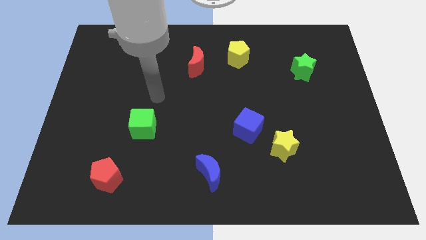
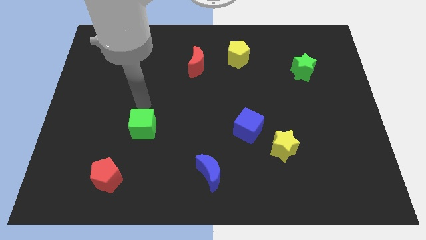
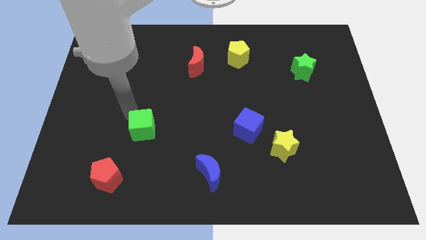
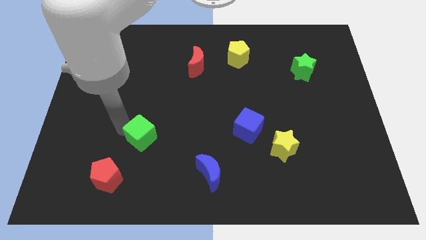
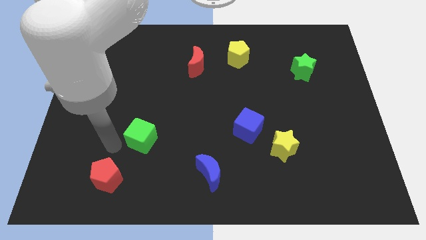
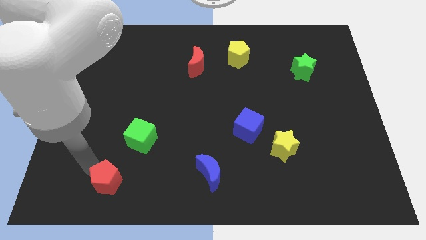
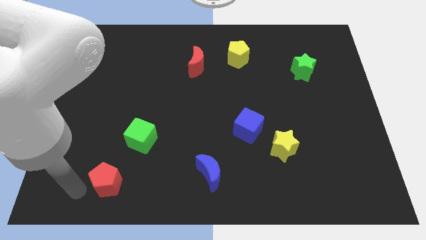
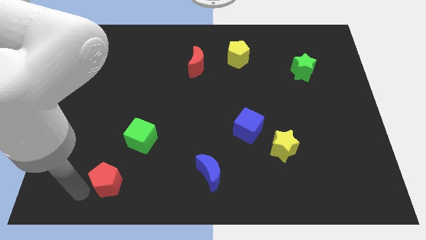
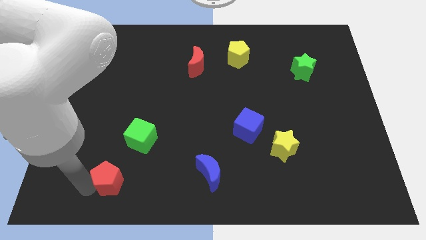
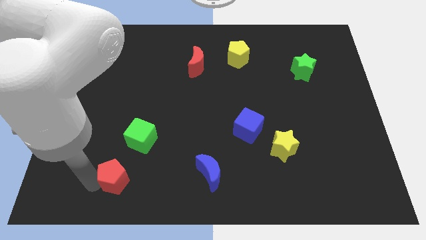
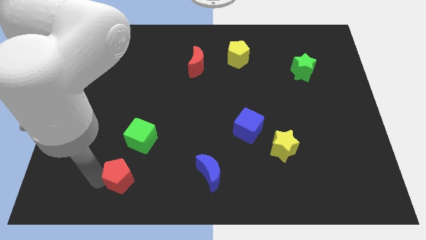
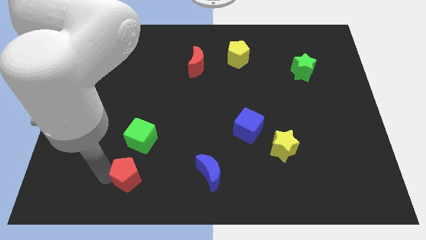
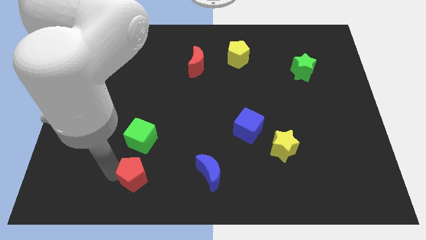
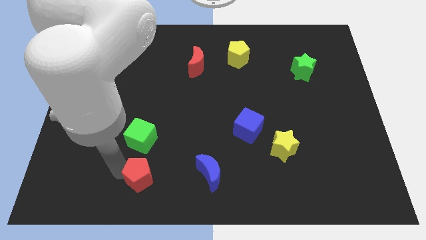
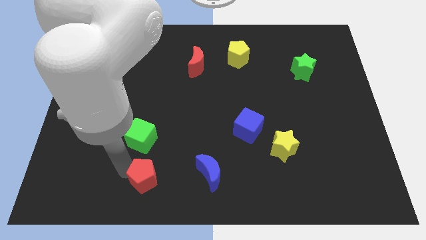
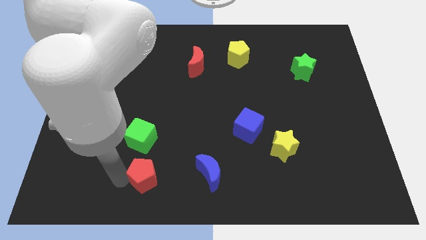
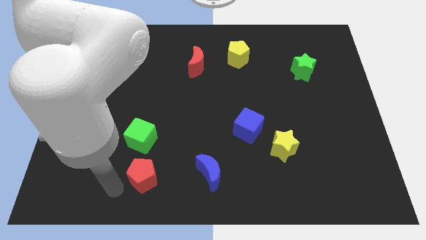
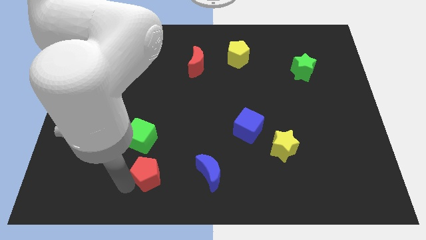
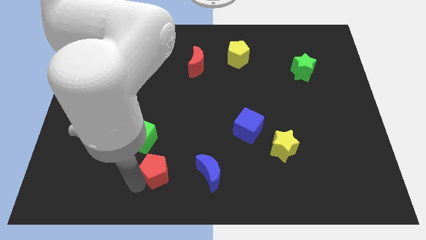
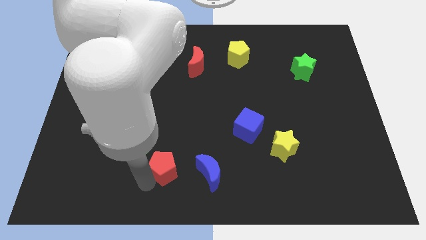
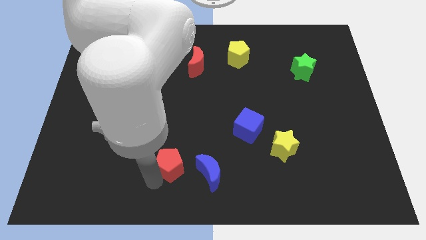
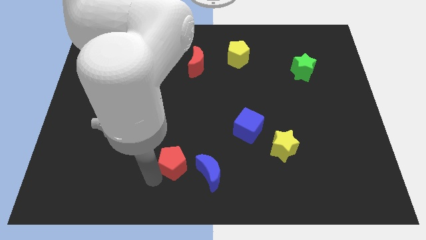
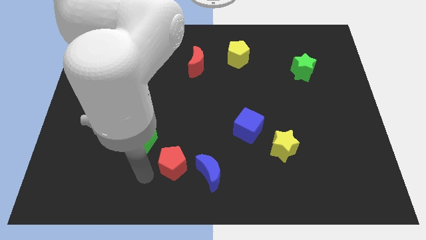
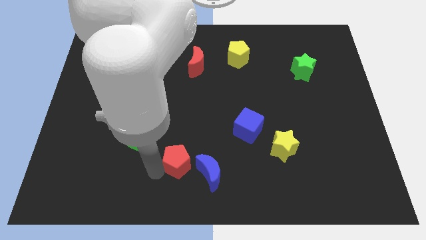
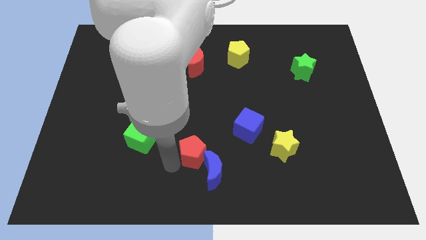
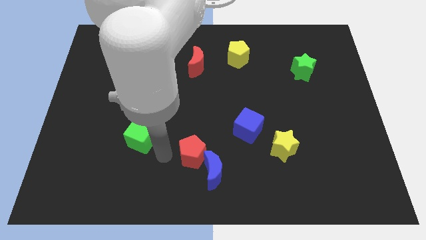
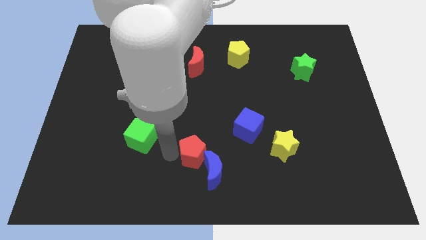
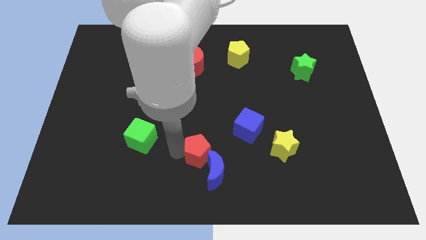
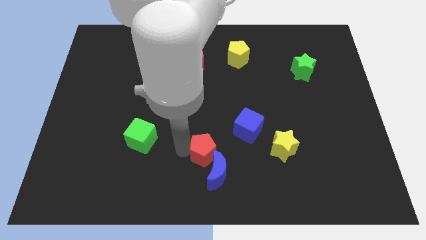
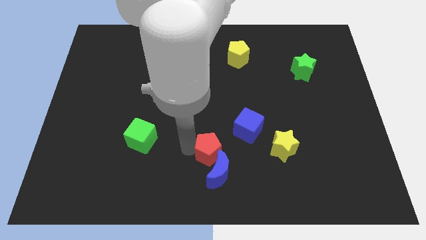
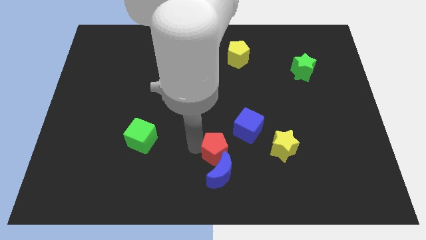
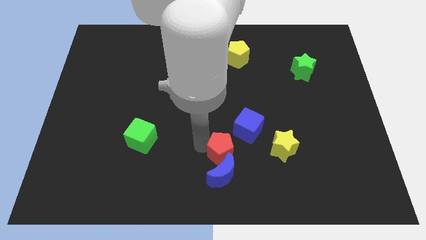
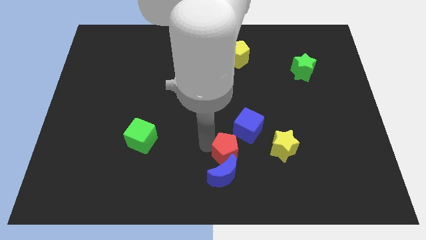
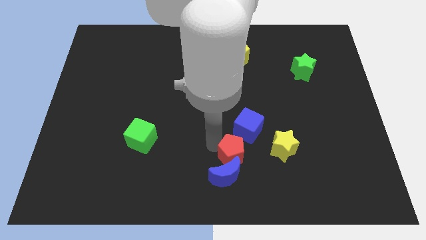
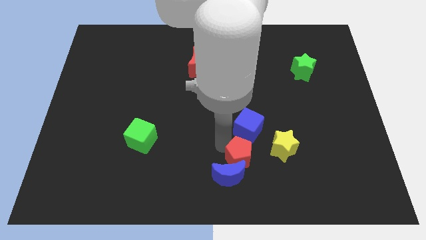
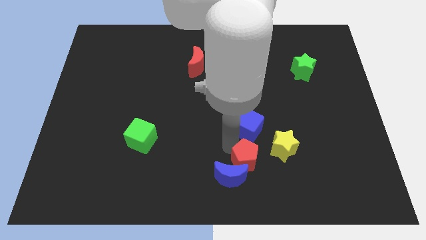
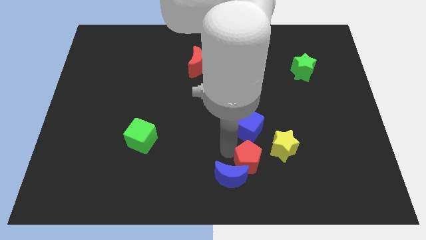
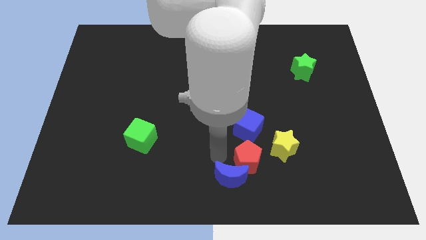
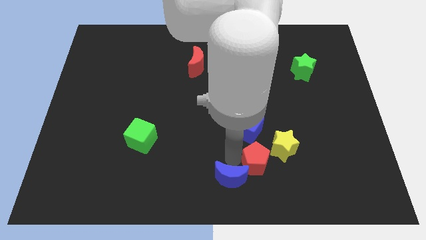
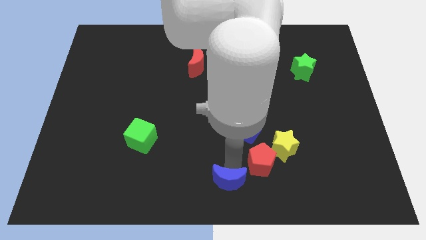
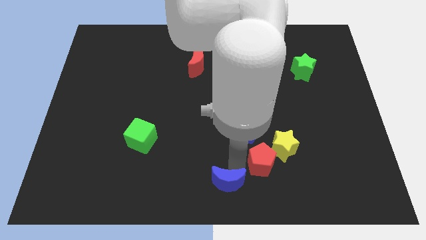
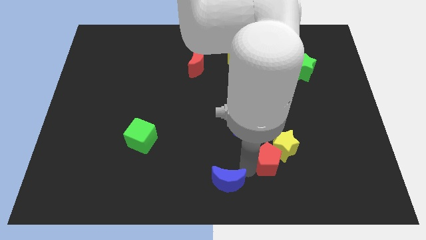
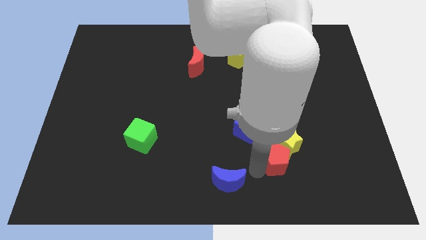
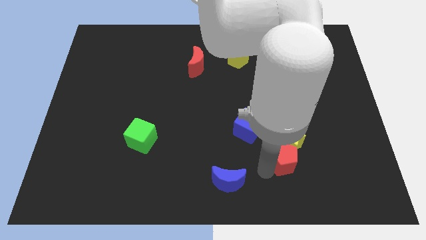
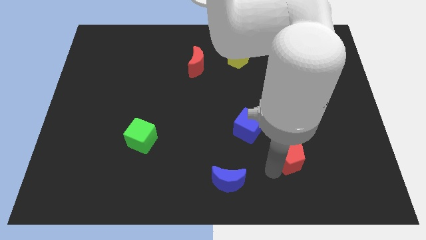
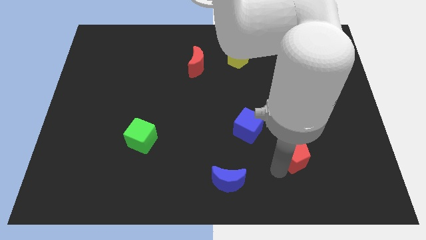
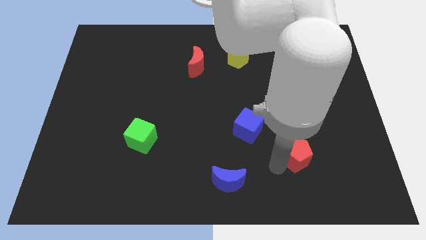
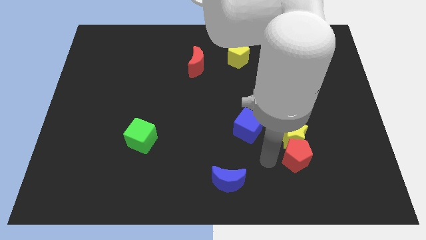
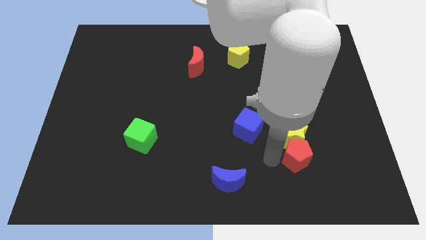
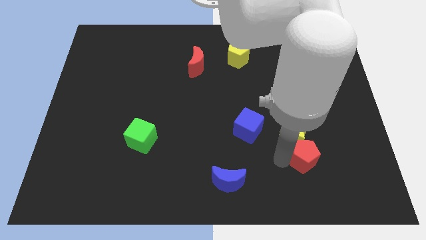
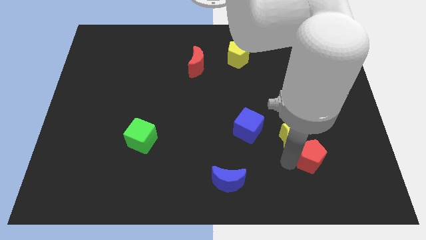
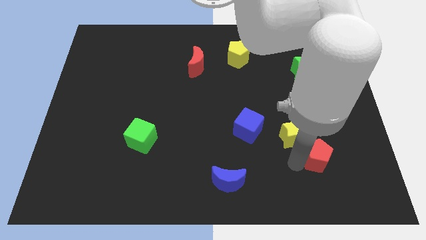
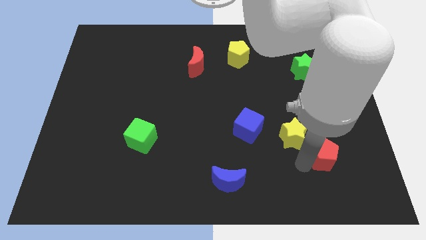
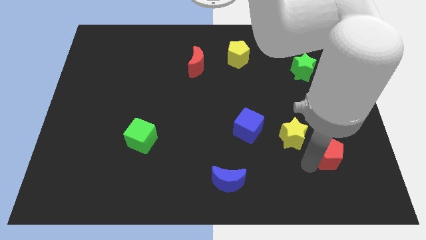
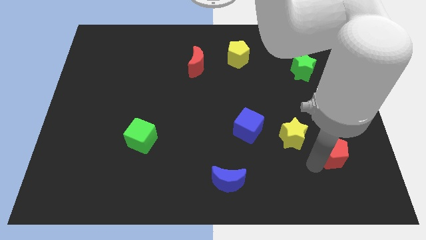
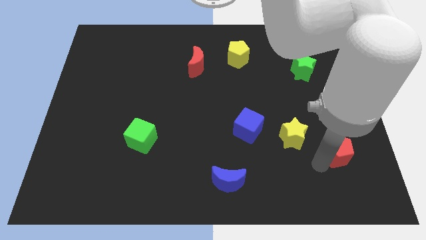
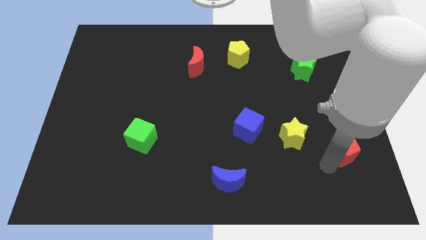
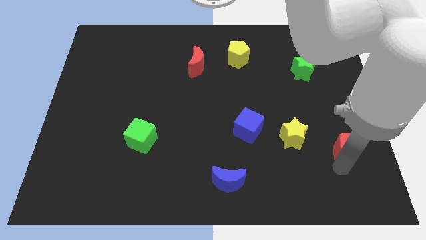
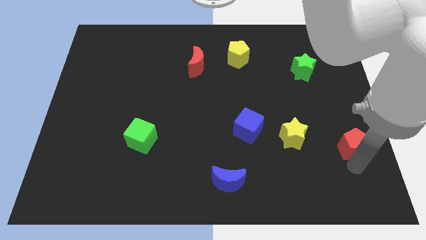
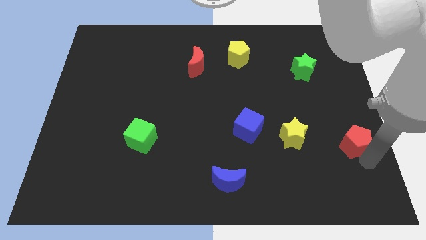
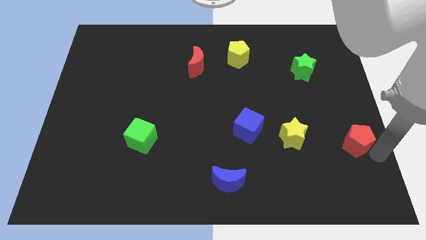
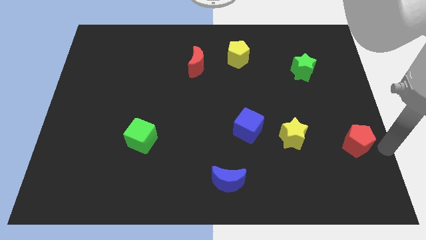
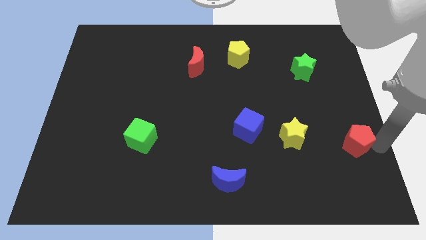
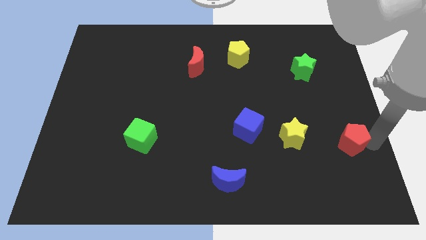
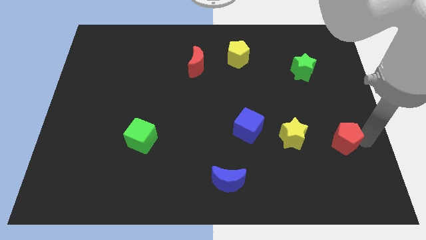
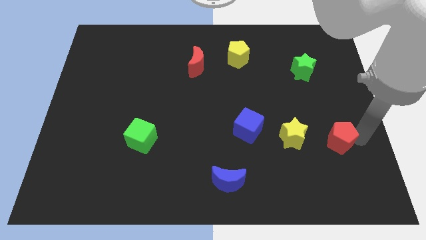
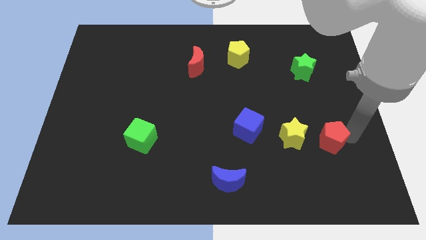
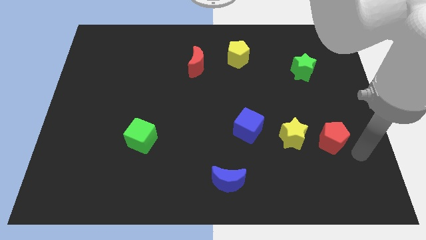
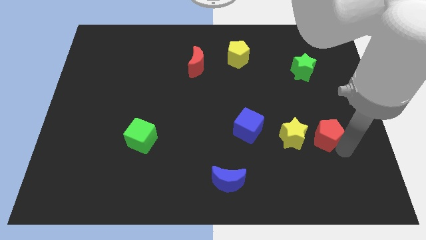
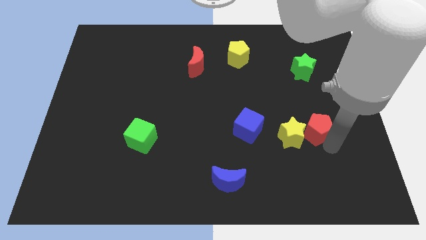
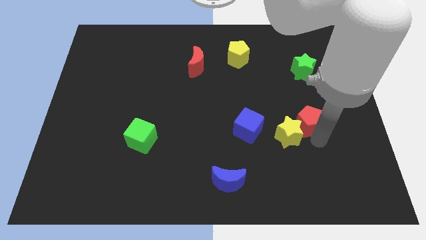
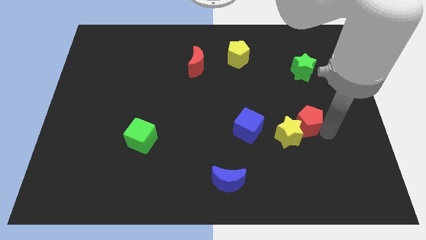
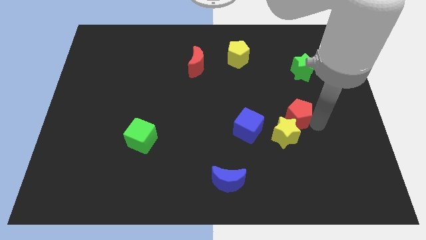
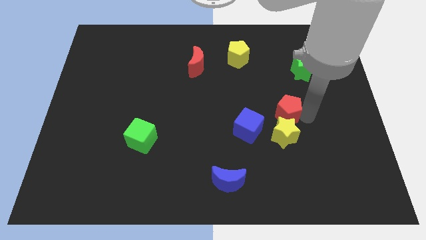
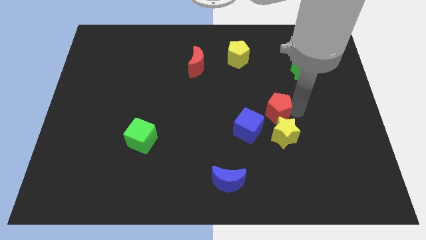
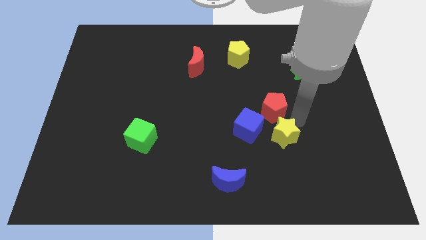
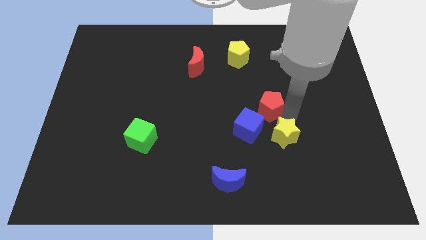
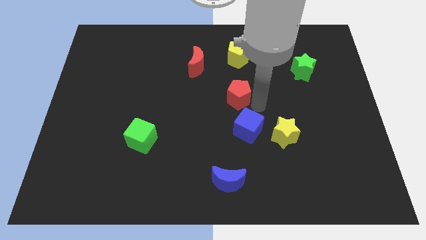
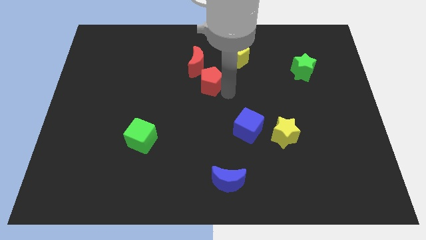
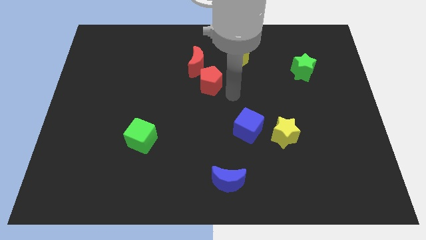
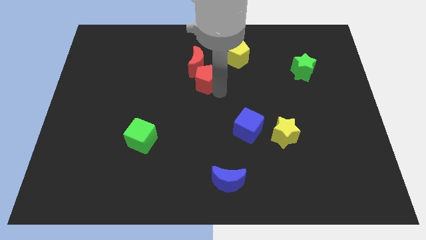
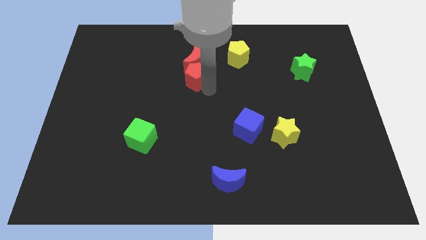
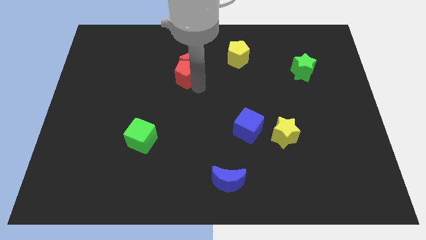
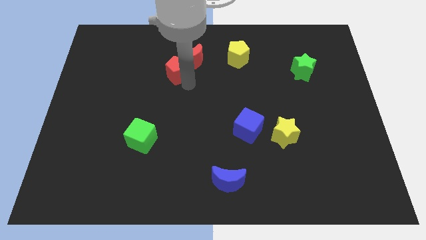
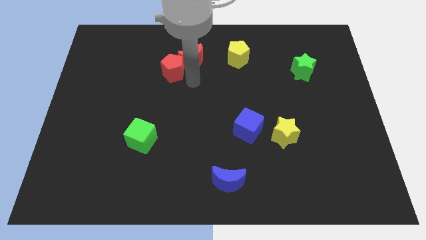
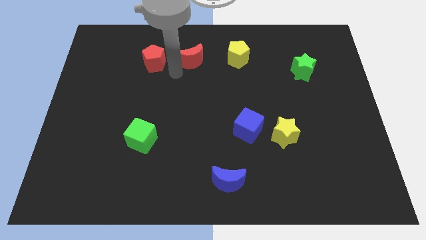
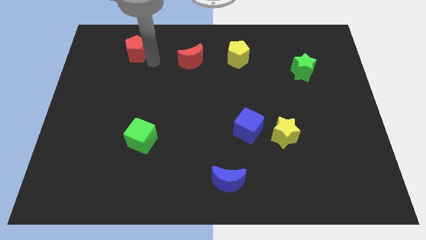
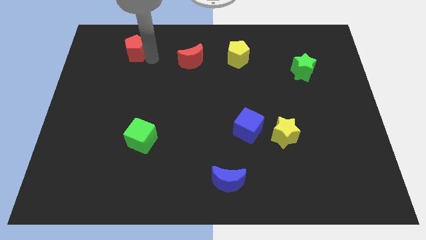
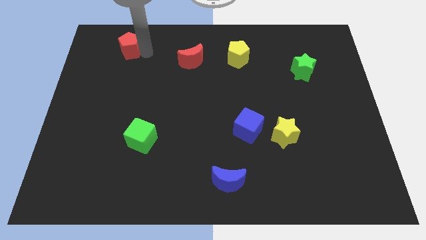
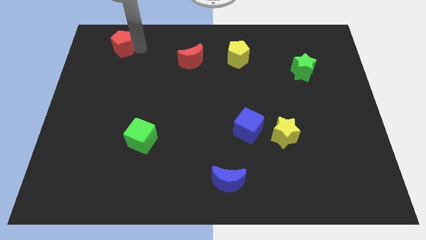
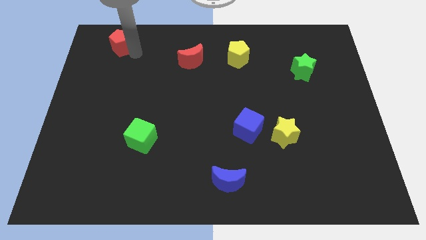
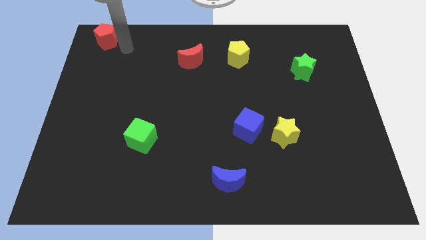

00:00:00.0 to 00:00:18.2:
move the red pentagon to the top left
